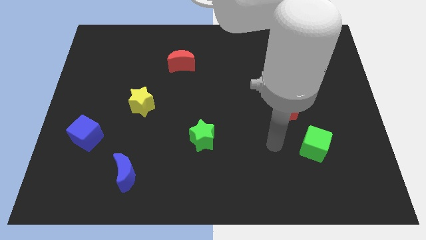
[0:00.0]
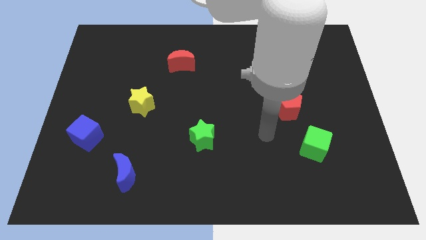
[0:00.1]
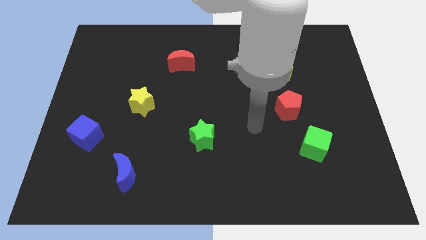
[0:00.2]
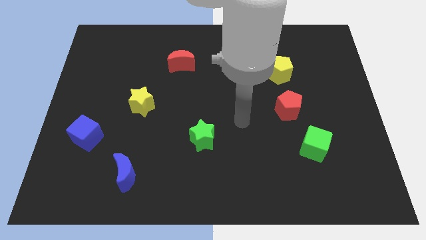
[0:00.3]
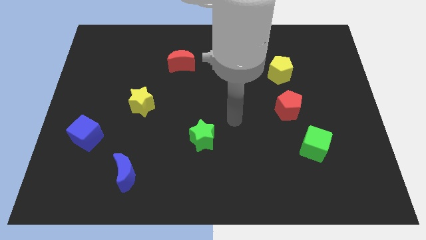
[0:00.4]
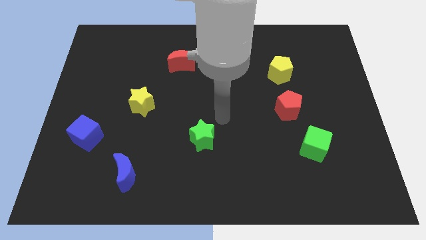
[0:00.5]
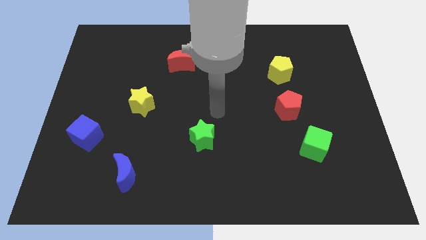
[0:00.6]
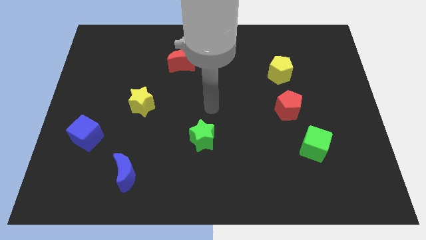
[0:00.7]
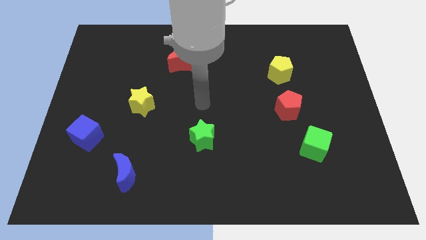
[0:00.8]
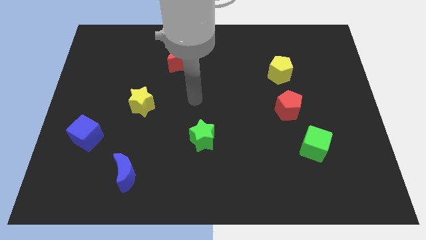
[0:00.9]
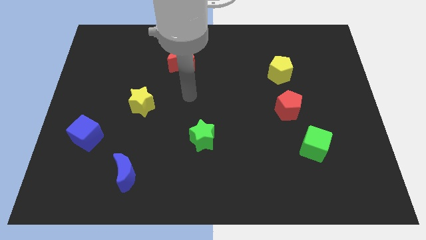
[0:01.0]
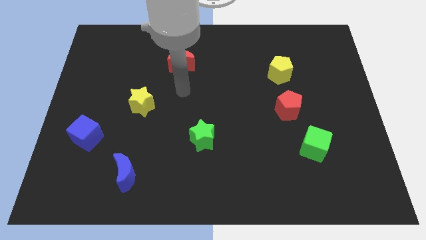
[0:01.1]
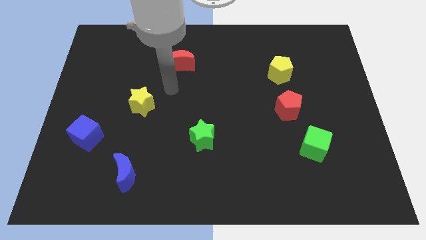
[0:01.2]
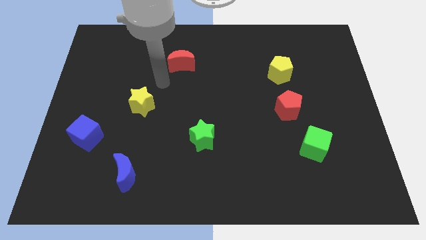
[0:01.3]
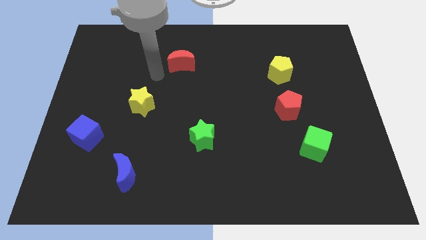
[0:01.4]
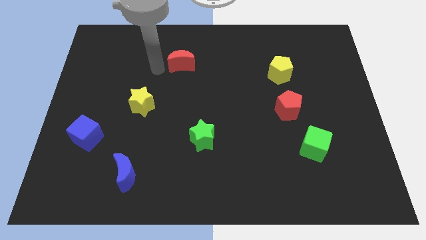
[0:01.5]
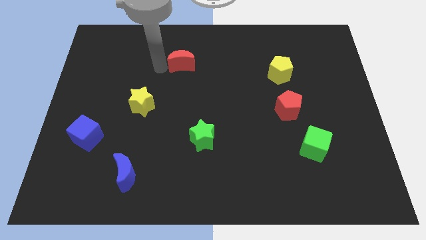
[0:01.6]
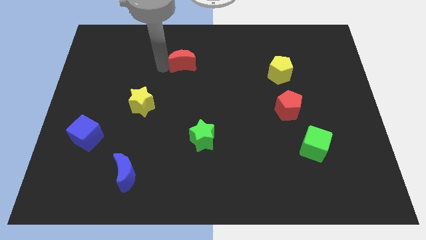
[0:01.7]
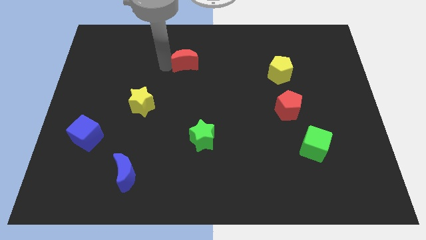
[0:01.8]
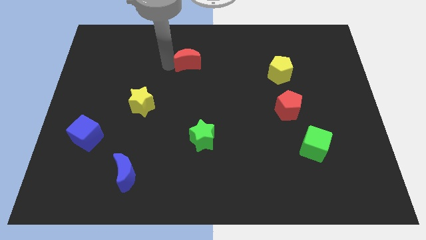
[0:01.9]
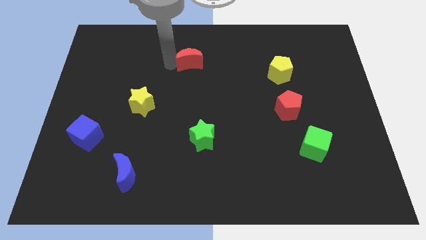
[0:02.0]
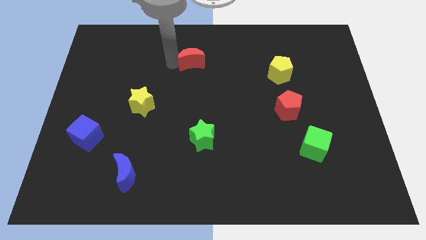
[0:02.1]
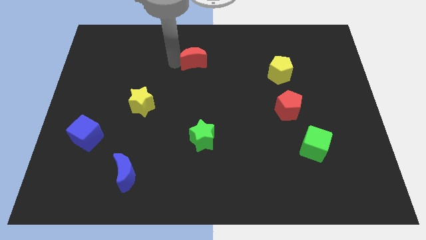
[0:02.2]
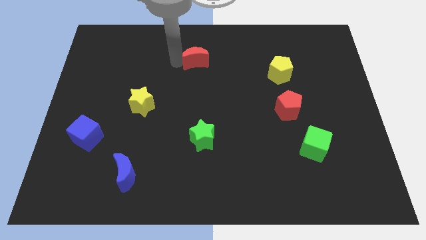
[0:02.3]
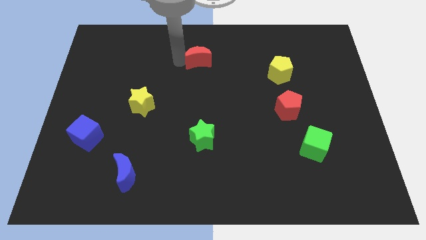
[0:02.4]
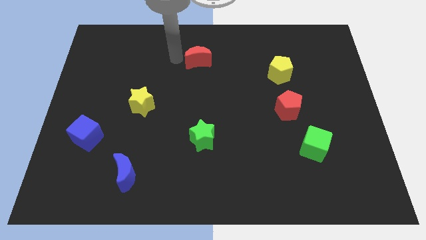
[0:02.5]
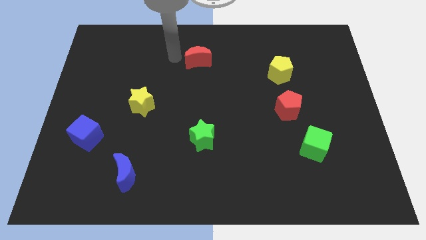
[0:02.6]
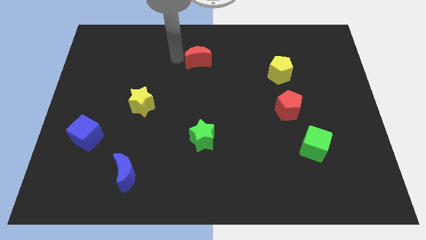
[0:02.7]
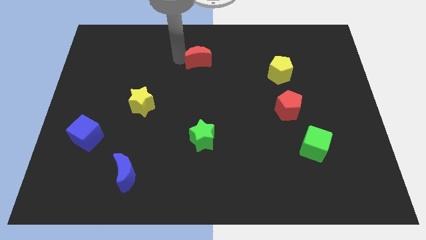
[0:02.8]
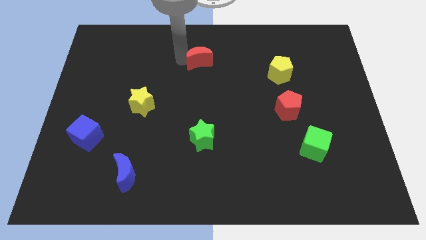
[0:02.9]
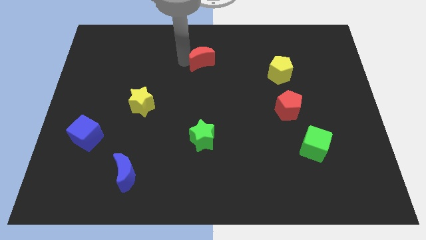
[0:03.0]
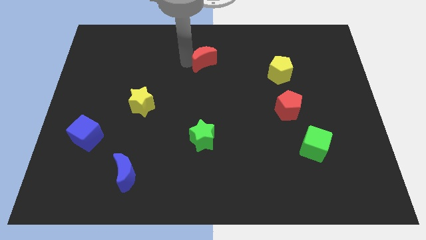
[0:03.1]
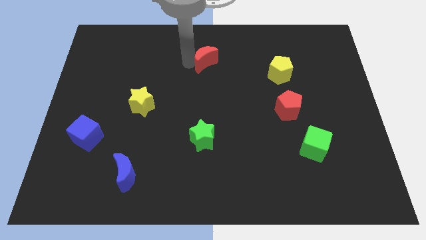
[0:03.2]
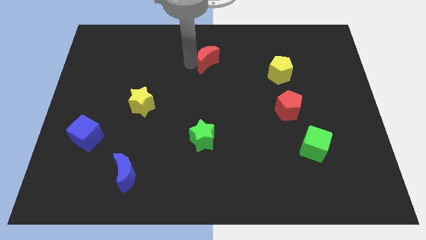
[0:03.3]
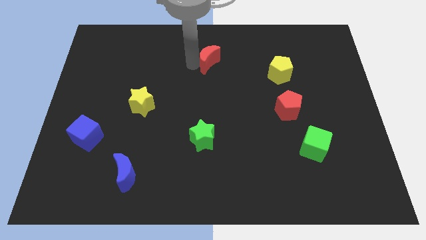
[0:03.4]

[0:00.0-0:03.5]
push the red moon to the right slightly

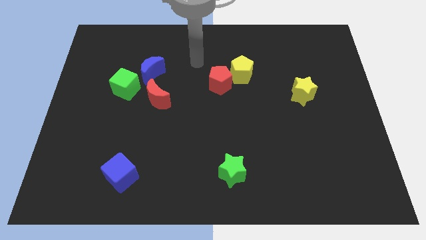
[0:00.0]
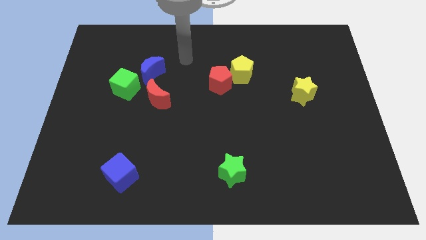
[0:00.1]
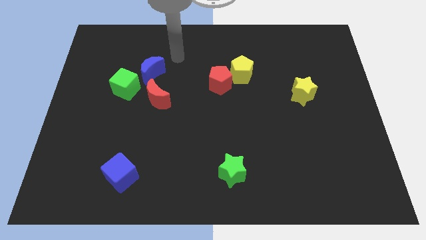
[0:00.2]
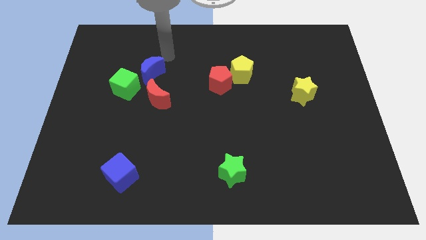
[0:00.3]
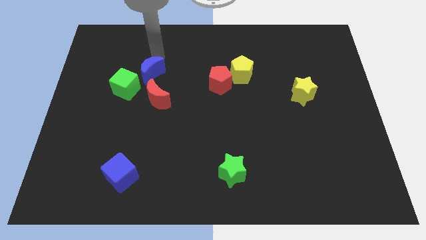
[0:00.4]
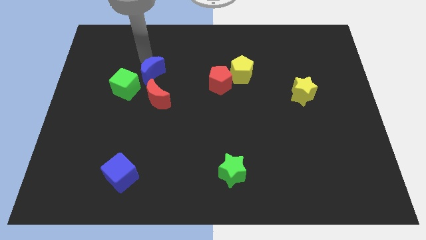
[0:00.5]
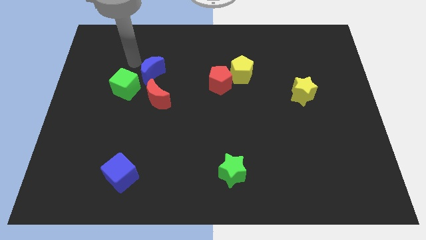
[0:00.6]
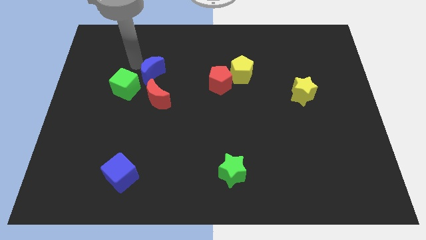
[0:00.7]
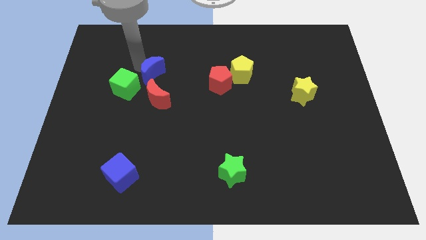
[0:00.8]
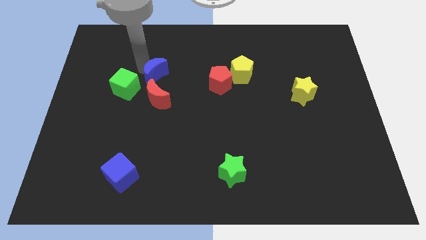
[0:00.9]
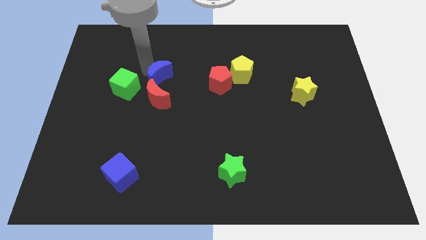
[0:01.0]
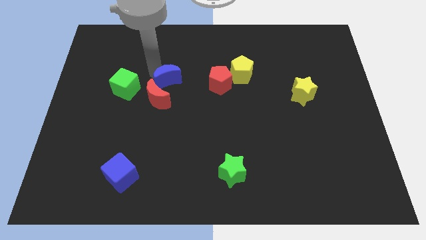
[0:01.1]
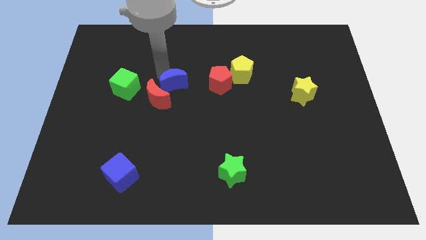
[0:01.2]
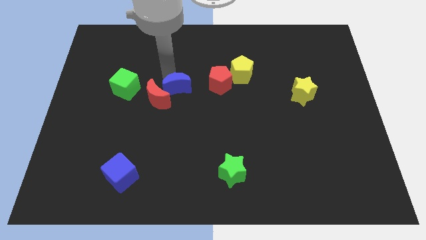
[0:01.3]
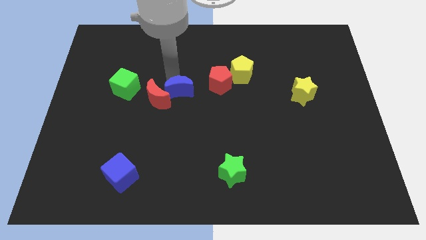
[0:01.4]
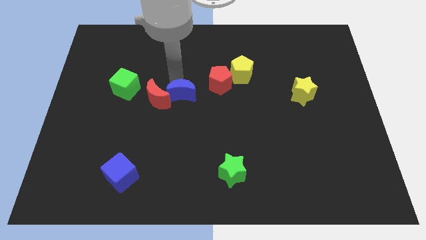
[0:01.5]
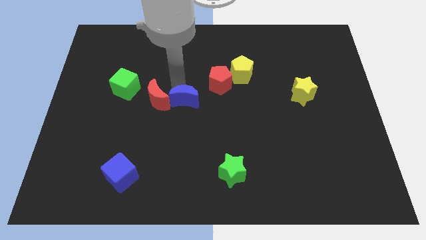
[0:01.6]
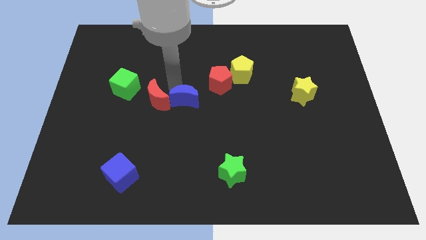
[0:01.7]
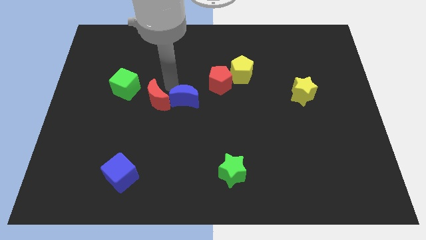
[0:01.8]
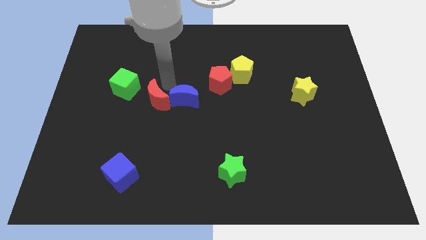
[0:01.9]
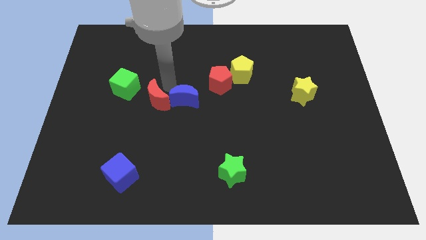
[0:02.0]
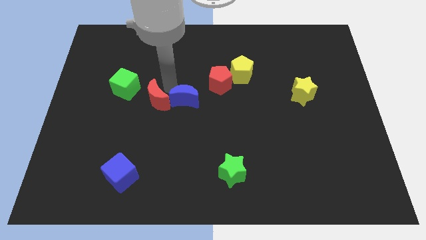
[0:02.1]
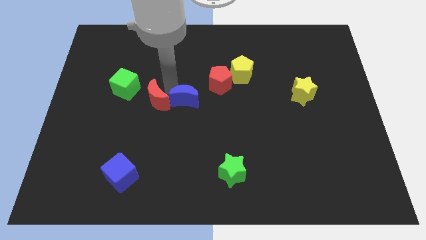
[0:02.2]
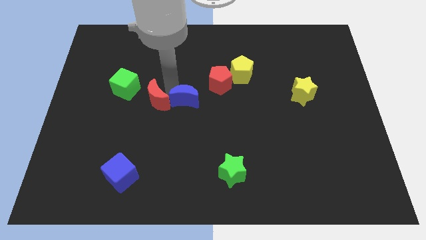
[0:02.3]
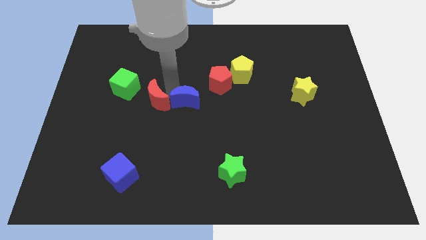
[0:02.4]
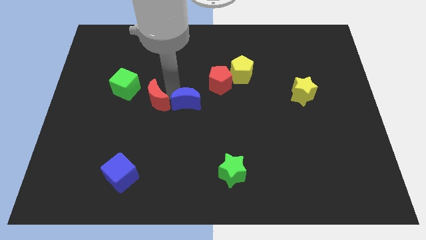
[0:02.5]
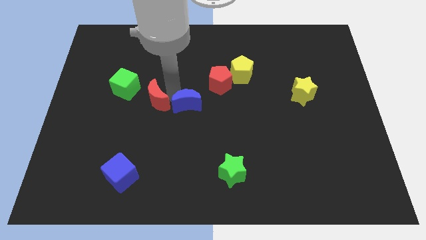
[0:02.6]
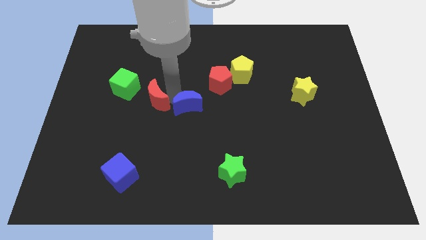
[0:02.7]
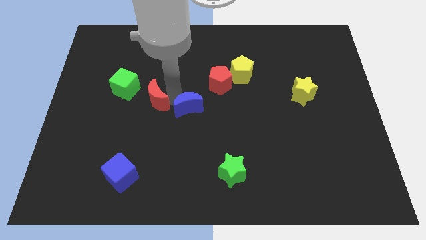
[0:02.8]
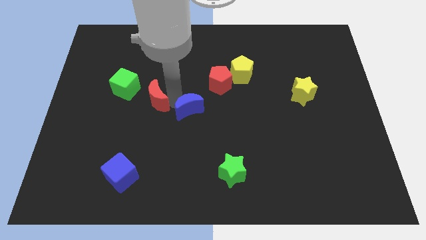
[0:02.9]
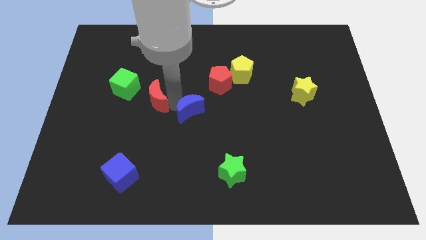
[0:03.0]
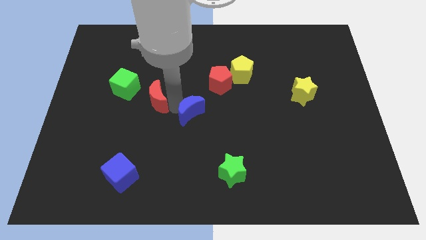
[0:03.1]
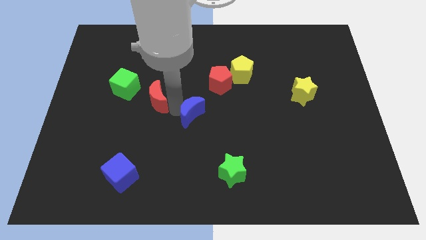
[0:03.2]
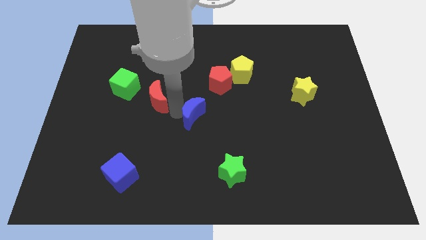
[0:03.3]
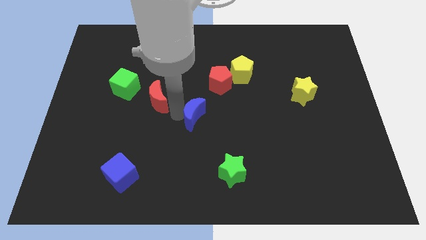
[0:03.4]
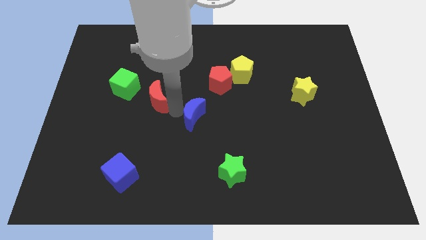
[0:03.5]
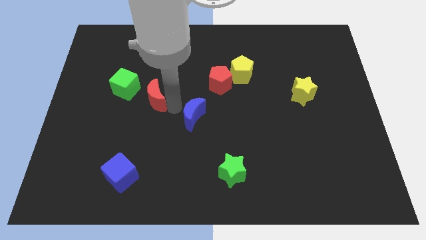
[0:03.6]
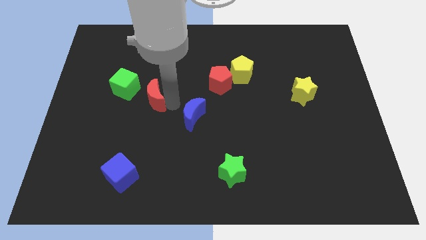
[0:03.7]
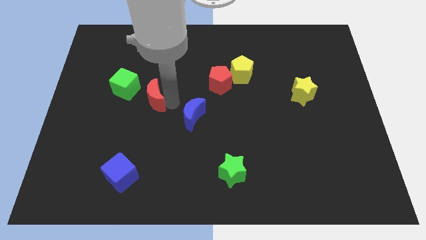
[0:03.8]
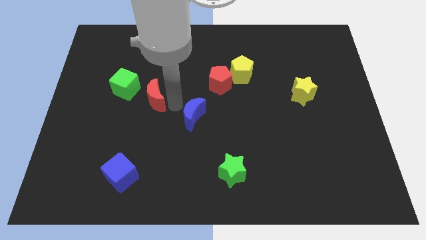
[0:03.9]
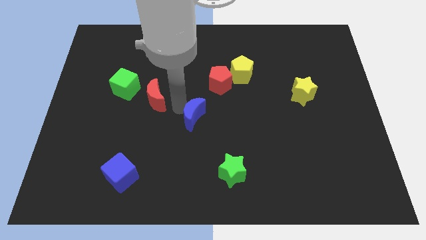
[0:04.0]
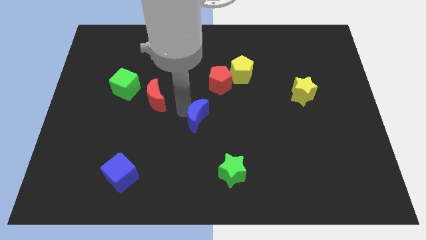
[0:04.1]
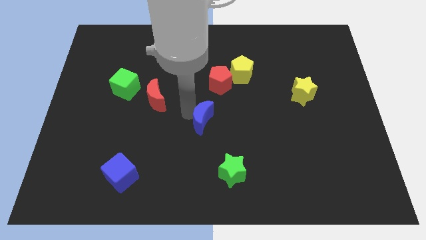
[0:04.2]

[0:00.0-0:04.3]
move the blue moon down and to the right diagonally
